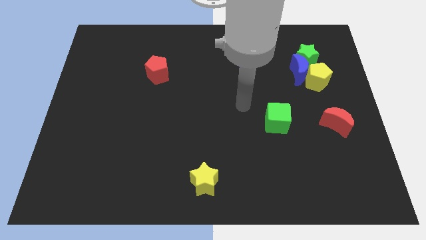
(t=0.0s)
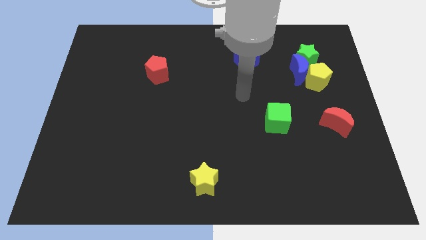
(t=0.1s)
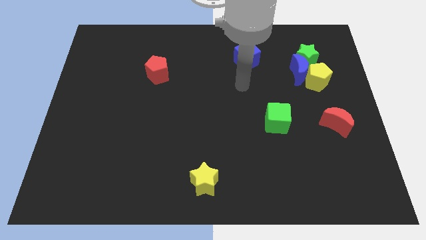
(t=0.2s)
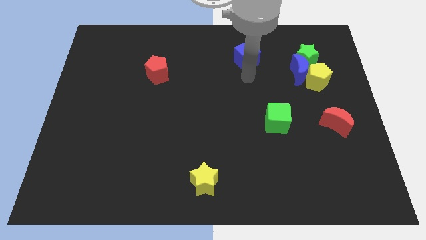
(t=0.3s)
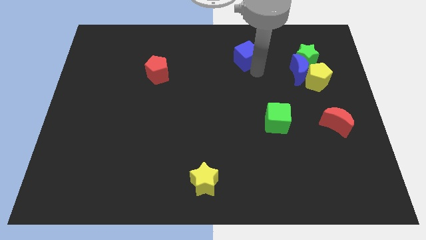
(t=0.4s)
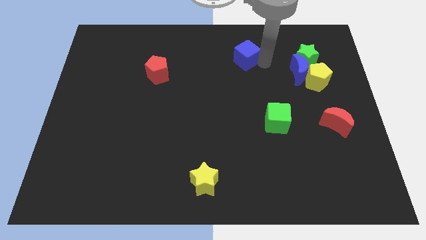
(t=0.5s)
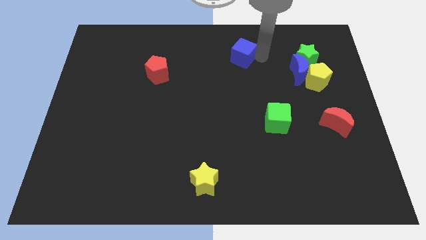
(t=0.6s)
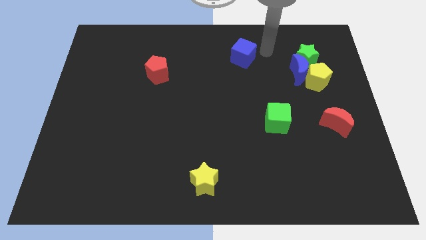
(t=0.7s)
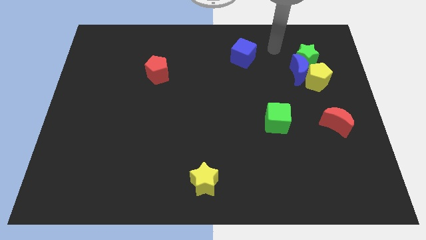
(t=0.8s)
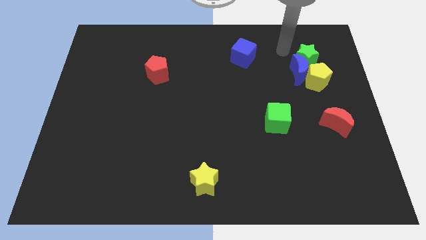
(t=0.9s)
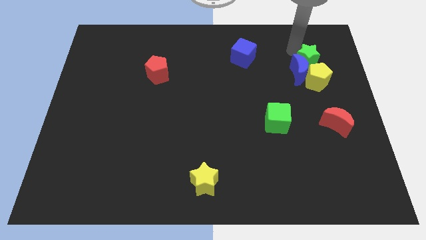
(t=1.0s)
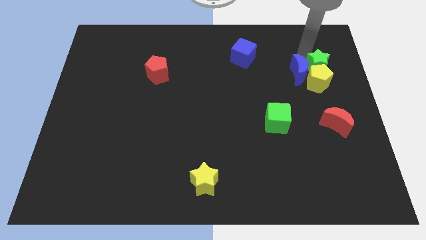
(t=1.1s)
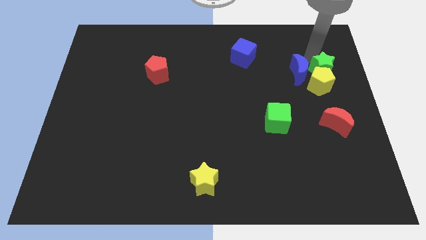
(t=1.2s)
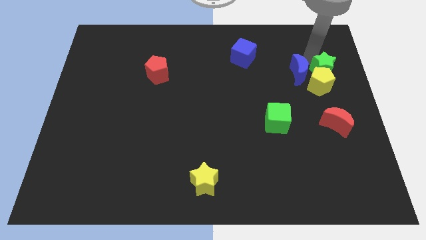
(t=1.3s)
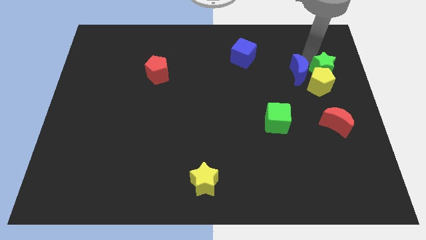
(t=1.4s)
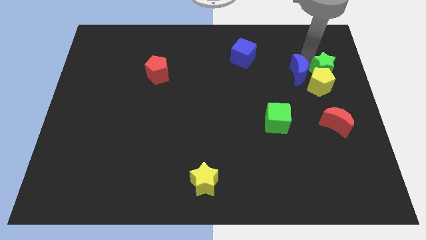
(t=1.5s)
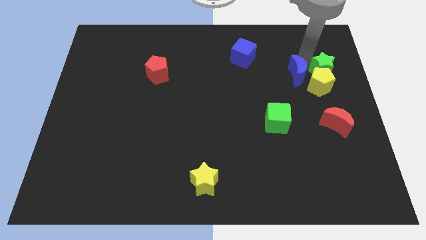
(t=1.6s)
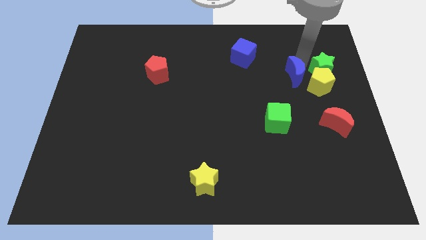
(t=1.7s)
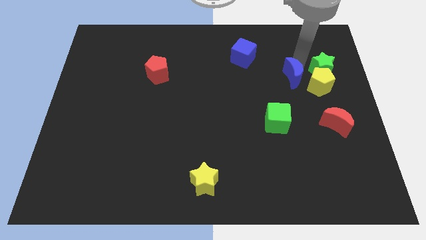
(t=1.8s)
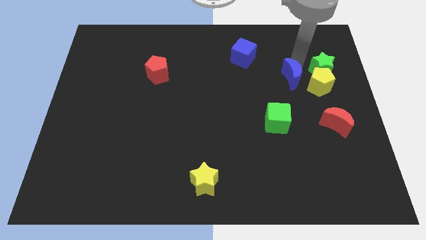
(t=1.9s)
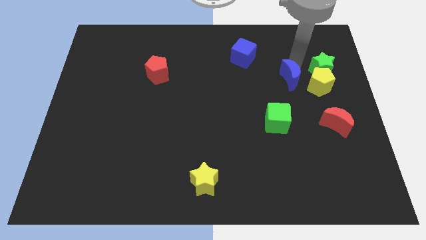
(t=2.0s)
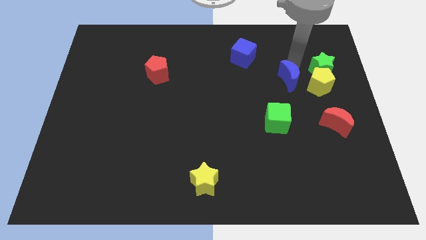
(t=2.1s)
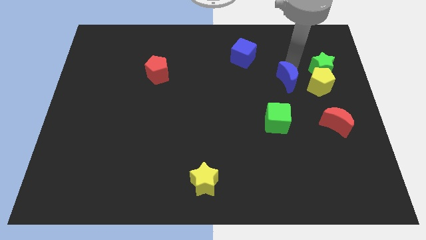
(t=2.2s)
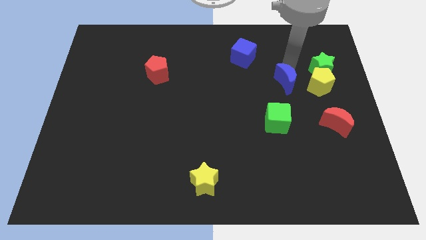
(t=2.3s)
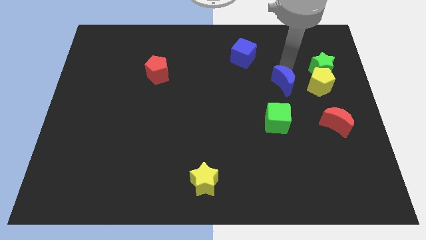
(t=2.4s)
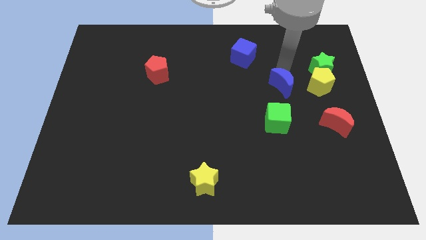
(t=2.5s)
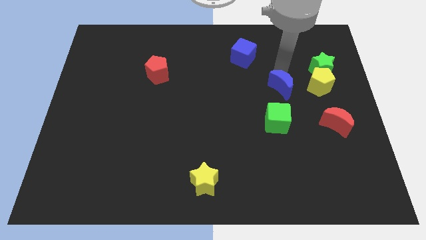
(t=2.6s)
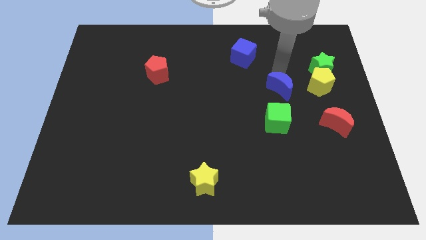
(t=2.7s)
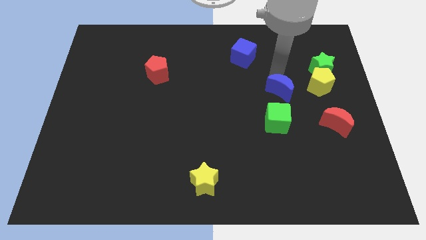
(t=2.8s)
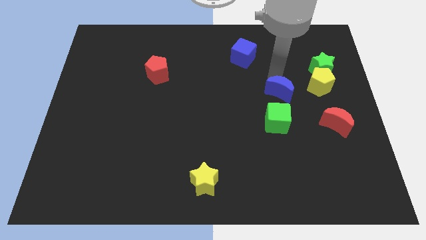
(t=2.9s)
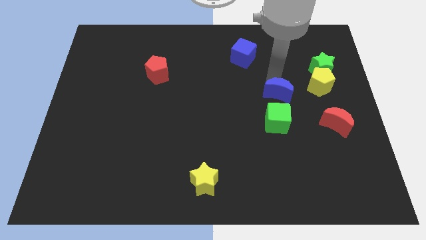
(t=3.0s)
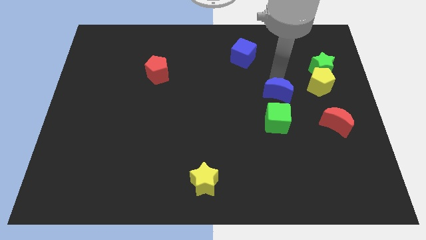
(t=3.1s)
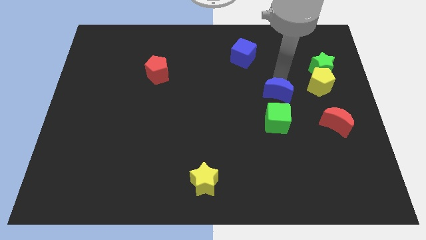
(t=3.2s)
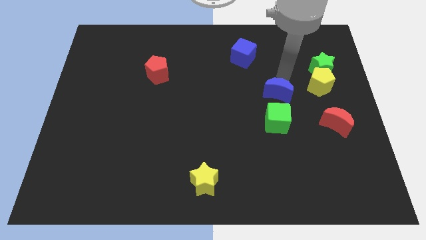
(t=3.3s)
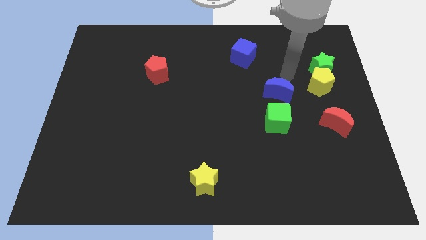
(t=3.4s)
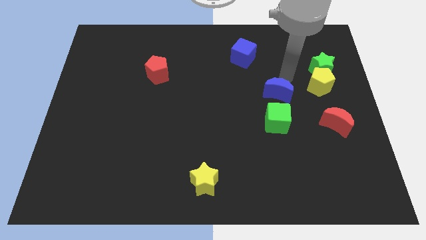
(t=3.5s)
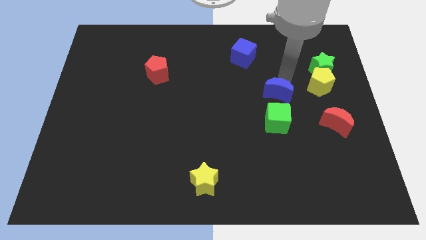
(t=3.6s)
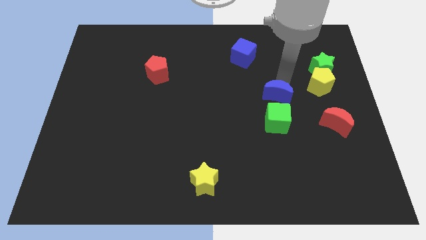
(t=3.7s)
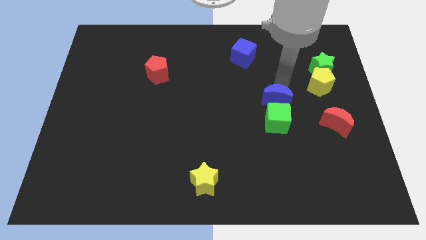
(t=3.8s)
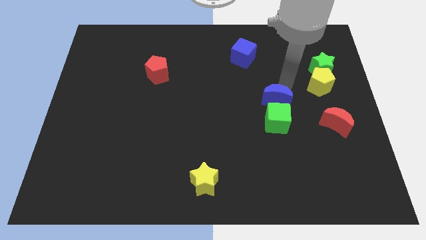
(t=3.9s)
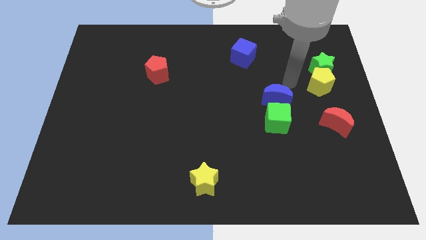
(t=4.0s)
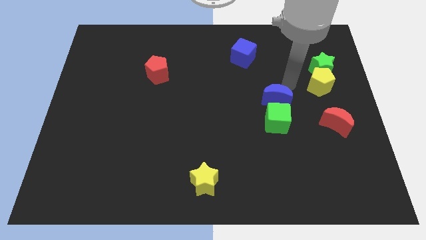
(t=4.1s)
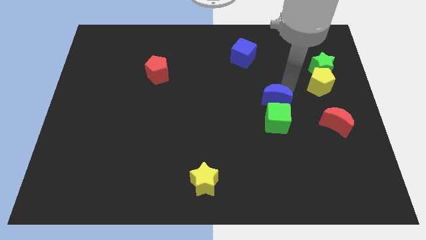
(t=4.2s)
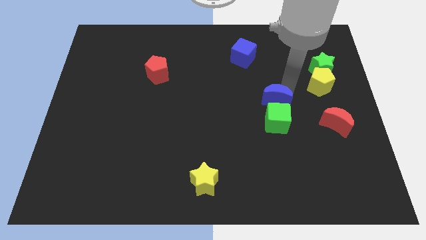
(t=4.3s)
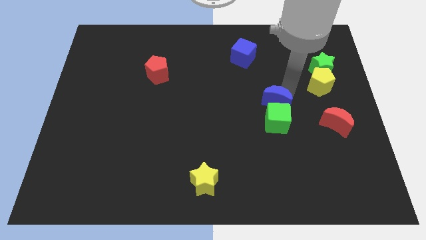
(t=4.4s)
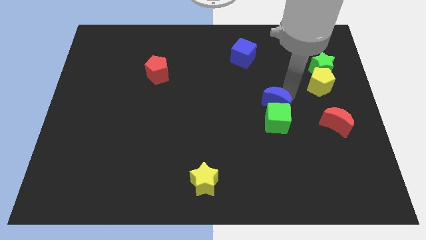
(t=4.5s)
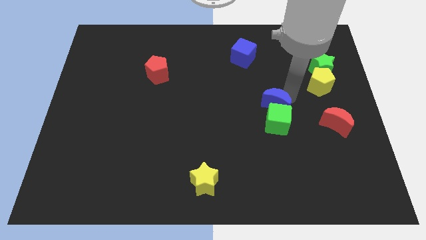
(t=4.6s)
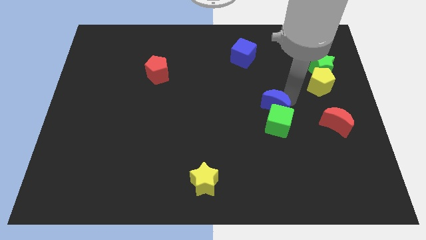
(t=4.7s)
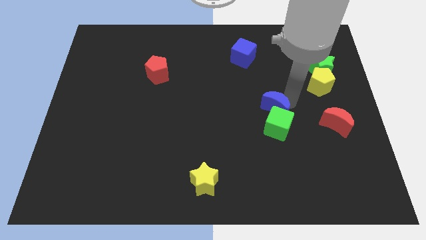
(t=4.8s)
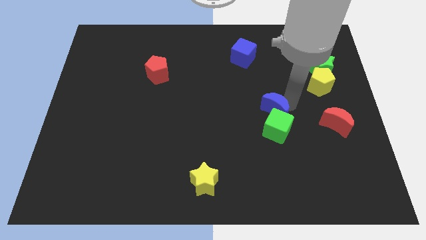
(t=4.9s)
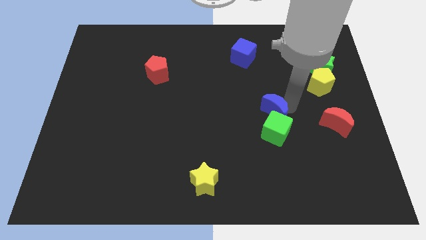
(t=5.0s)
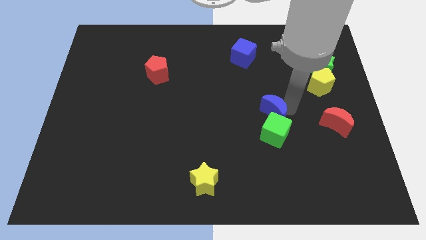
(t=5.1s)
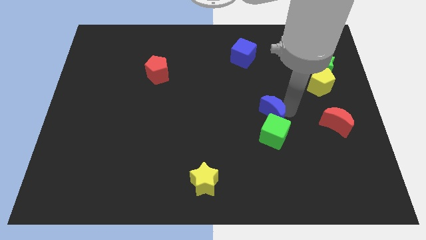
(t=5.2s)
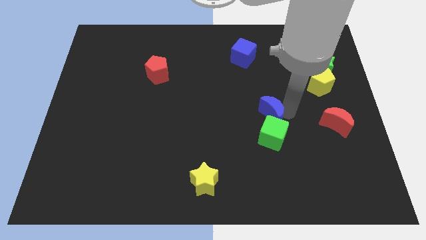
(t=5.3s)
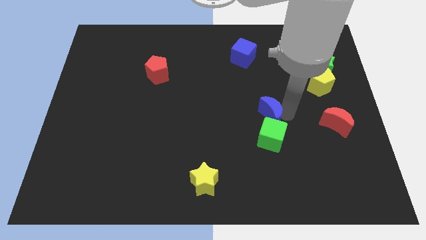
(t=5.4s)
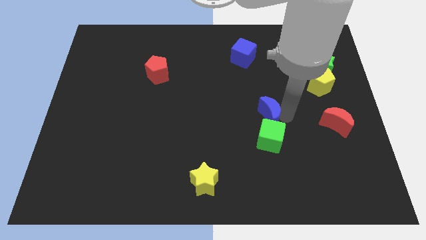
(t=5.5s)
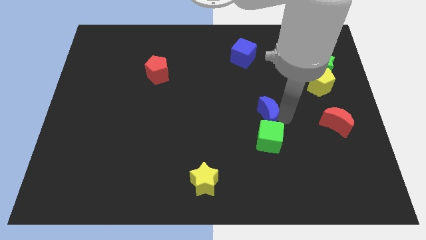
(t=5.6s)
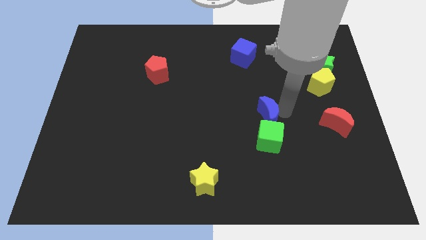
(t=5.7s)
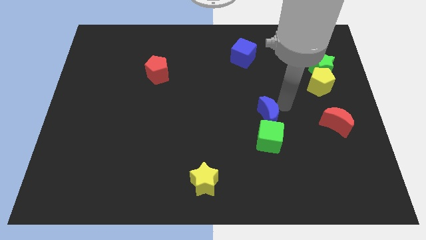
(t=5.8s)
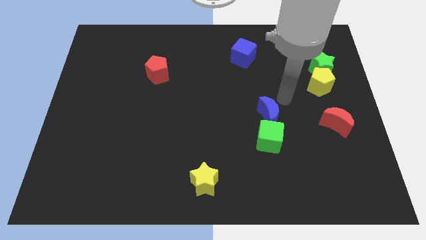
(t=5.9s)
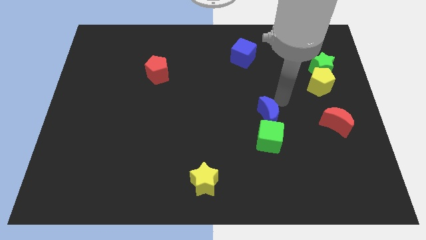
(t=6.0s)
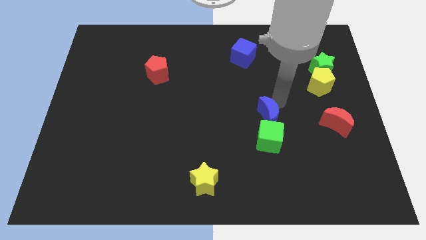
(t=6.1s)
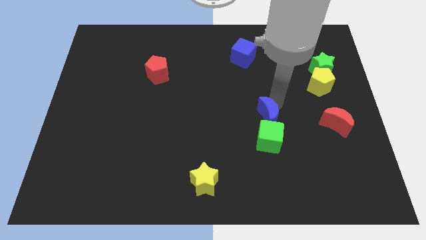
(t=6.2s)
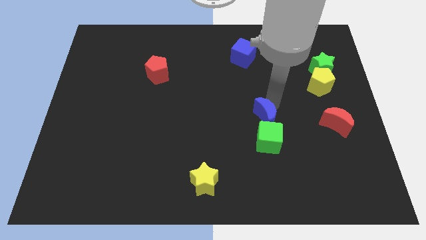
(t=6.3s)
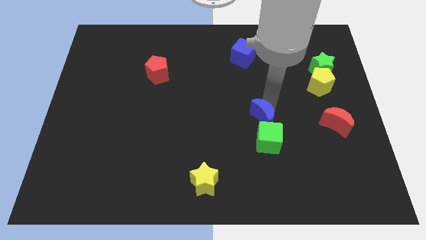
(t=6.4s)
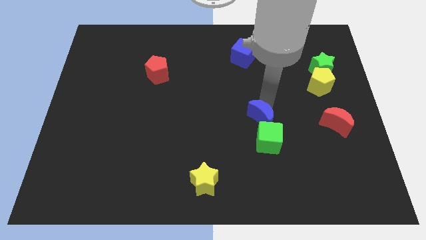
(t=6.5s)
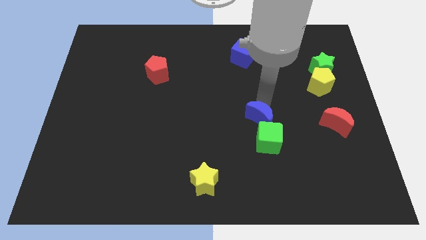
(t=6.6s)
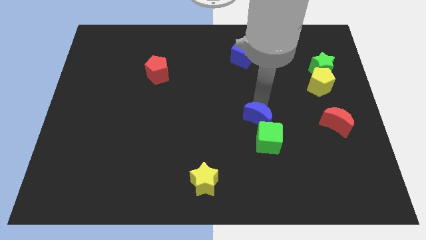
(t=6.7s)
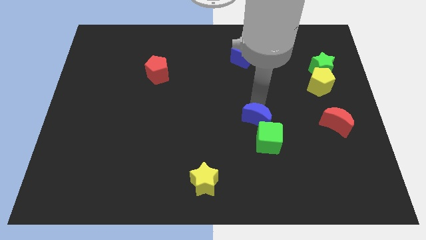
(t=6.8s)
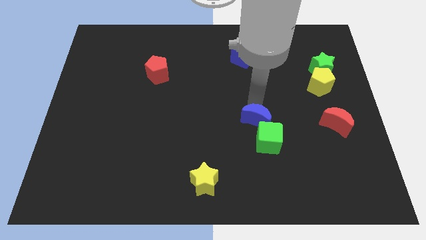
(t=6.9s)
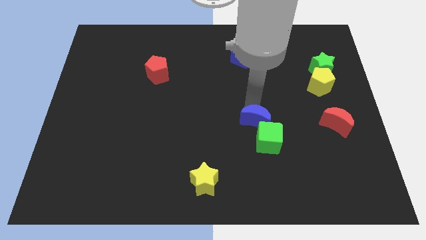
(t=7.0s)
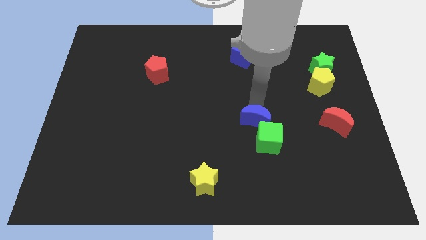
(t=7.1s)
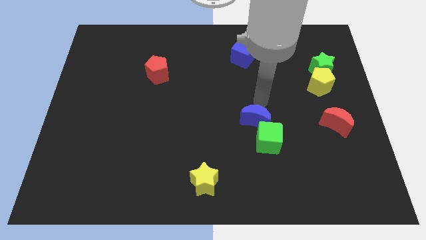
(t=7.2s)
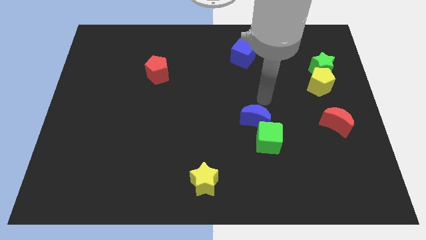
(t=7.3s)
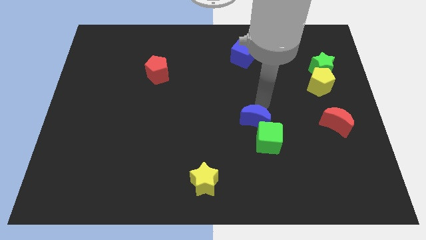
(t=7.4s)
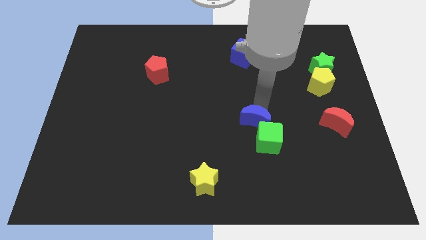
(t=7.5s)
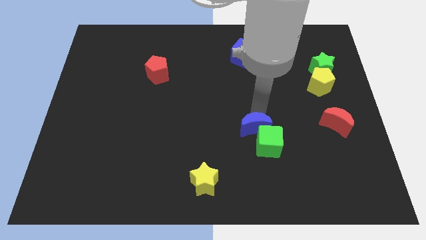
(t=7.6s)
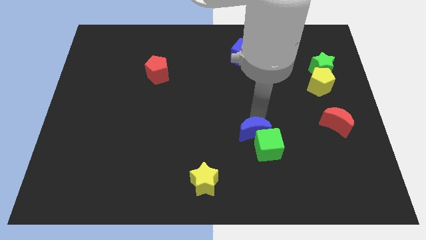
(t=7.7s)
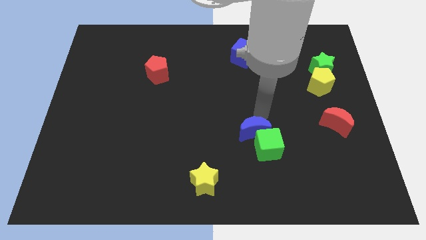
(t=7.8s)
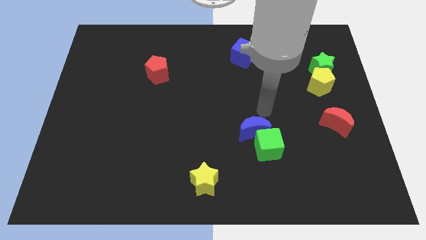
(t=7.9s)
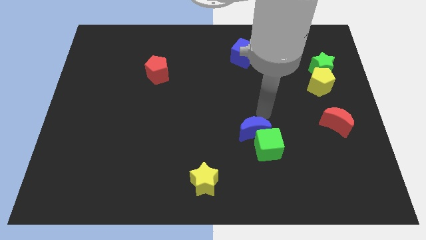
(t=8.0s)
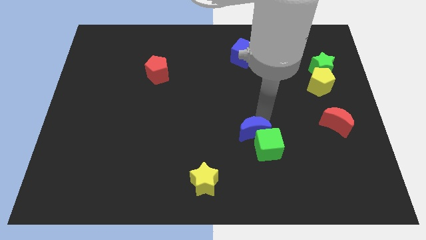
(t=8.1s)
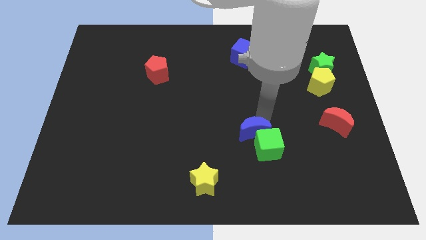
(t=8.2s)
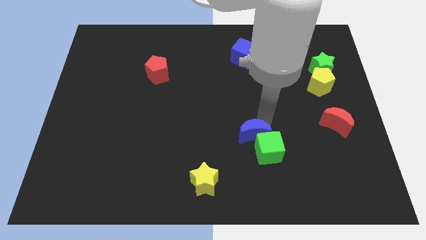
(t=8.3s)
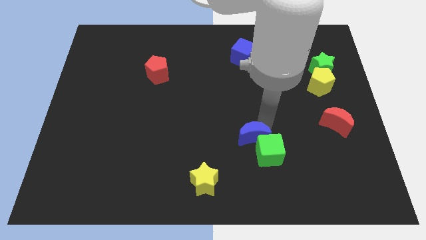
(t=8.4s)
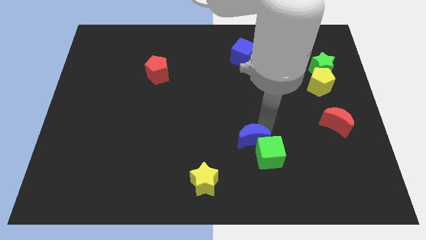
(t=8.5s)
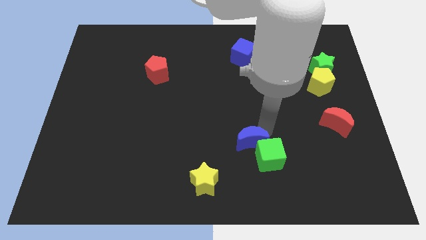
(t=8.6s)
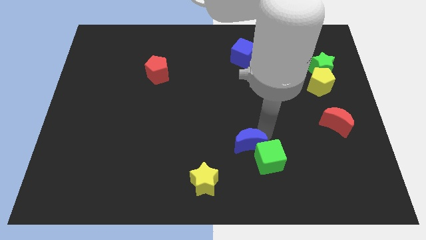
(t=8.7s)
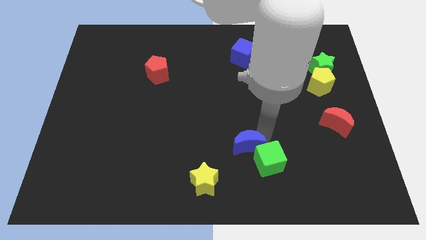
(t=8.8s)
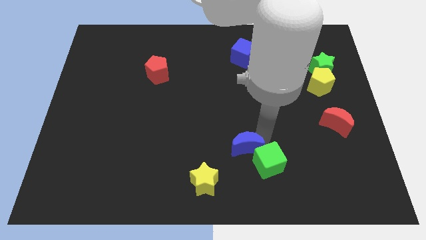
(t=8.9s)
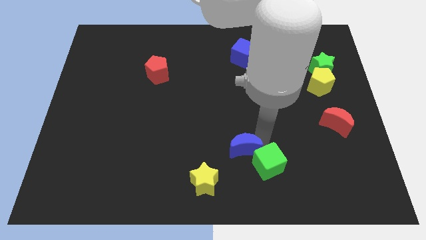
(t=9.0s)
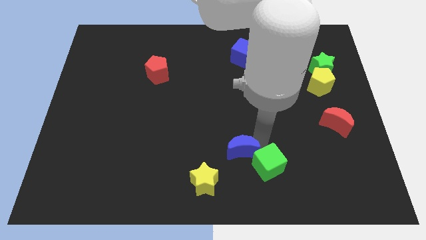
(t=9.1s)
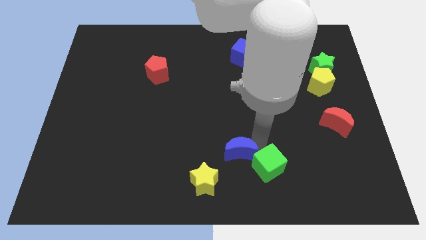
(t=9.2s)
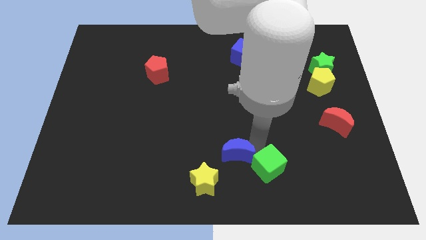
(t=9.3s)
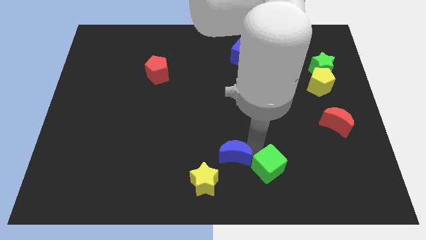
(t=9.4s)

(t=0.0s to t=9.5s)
slide the blue moon to the bottom side
